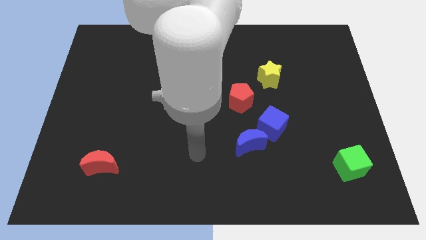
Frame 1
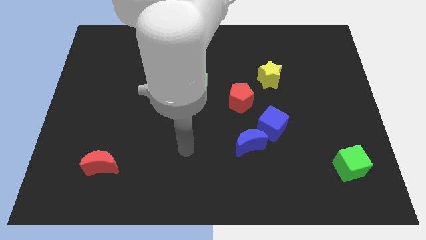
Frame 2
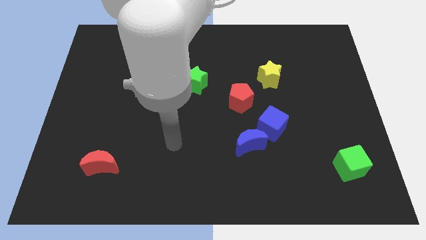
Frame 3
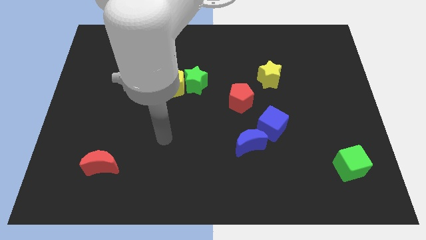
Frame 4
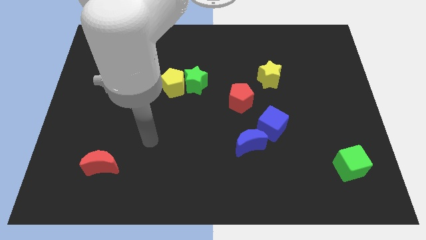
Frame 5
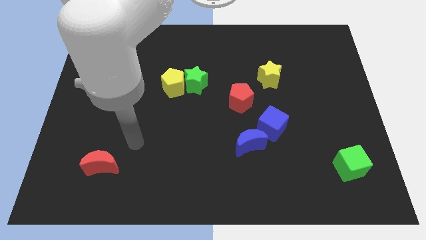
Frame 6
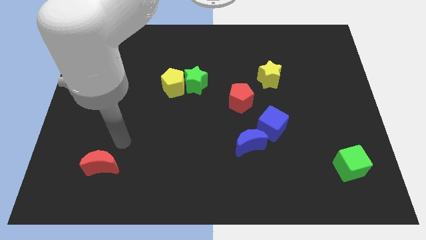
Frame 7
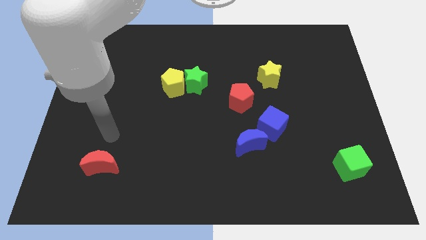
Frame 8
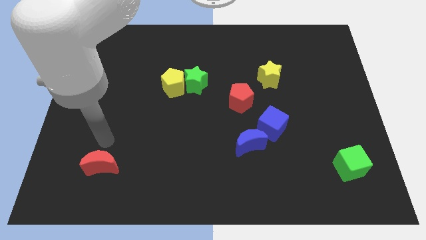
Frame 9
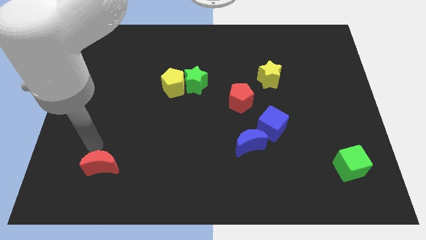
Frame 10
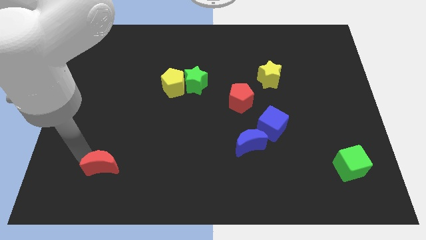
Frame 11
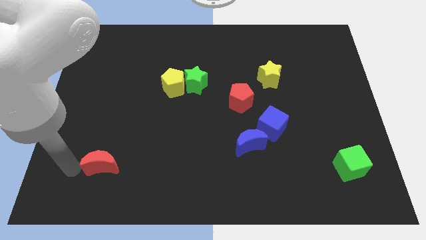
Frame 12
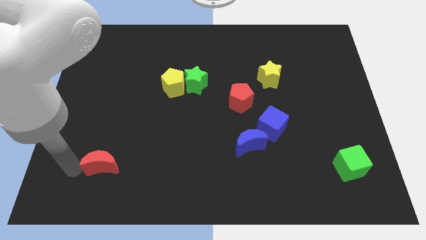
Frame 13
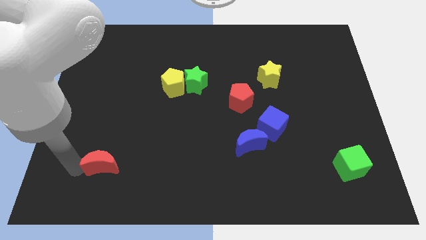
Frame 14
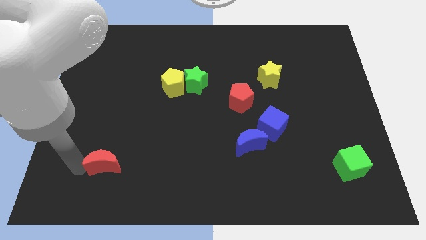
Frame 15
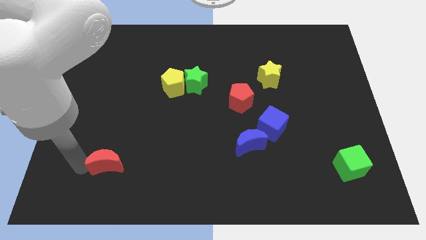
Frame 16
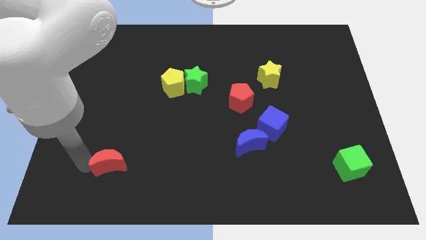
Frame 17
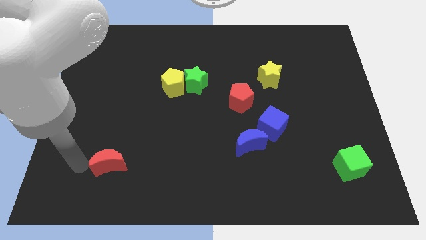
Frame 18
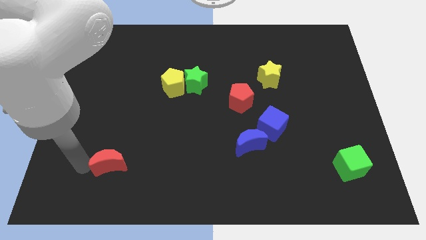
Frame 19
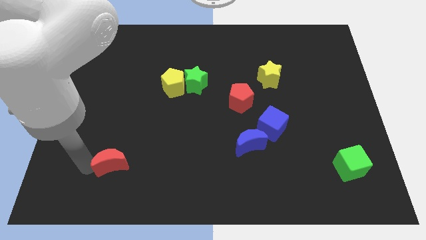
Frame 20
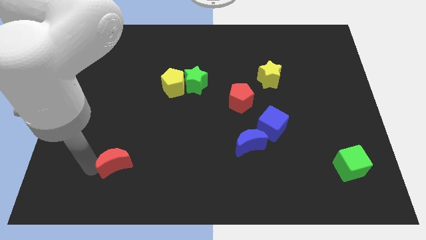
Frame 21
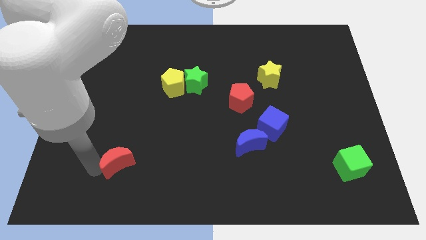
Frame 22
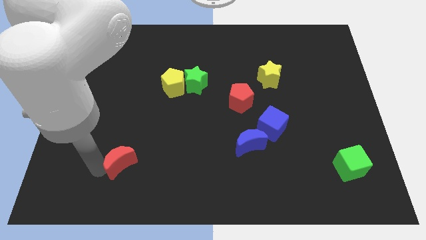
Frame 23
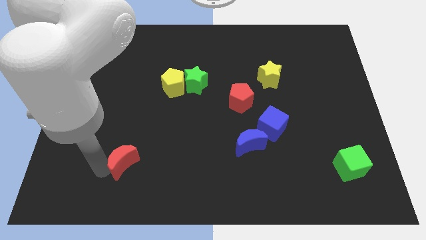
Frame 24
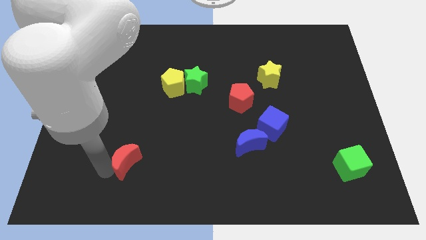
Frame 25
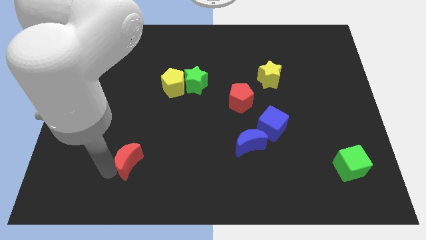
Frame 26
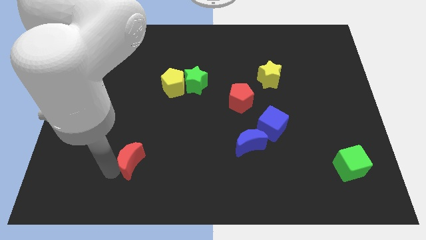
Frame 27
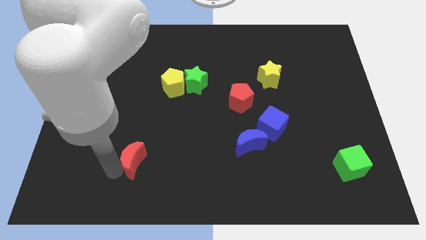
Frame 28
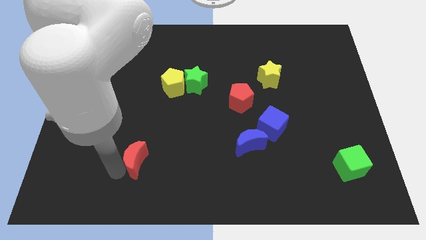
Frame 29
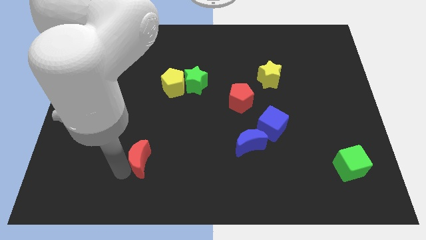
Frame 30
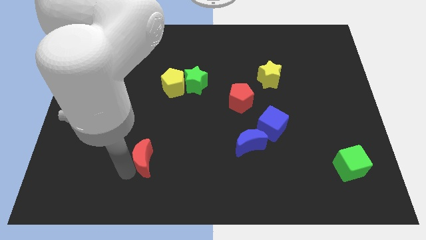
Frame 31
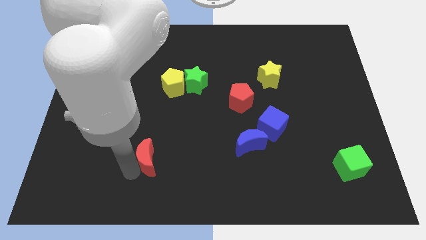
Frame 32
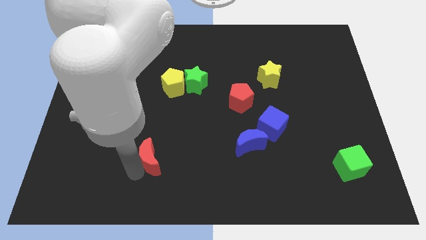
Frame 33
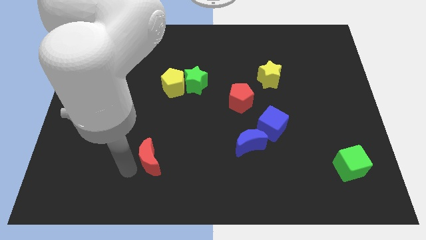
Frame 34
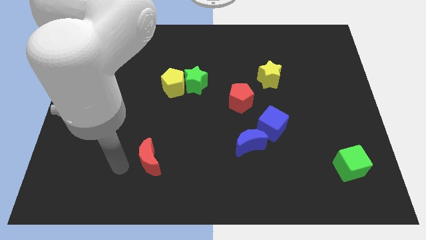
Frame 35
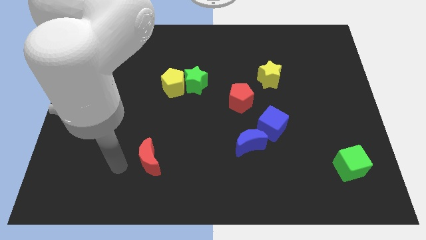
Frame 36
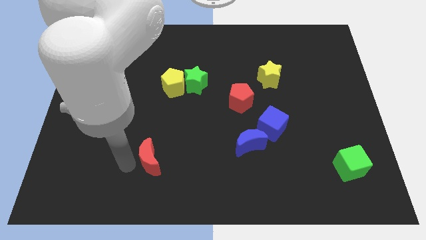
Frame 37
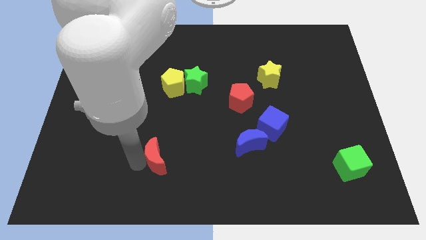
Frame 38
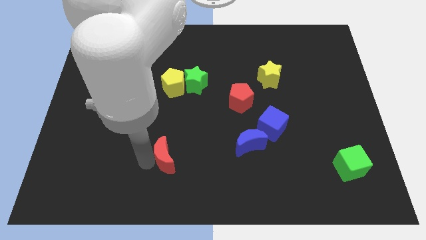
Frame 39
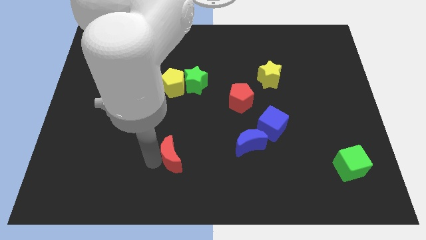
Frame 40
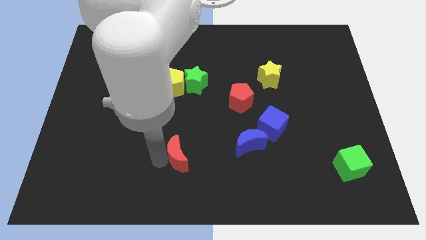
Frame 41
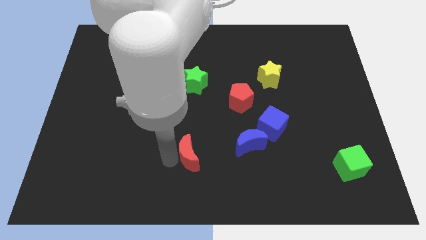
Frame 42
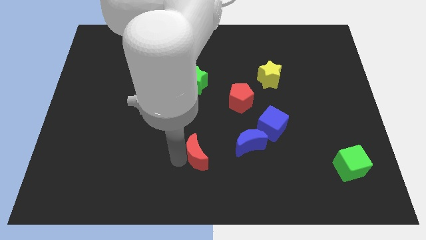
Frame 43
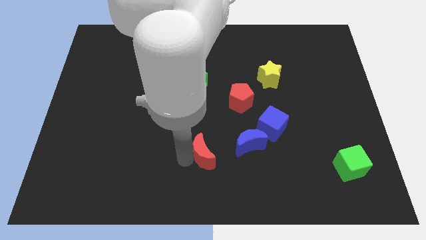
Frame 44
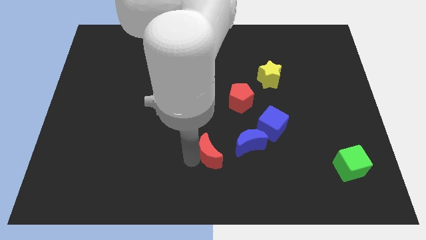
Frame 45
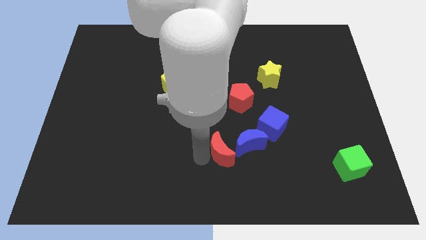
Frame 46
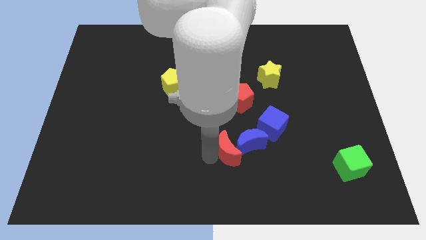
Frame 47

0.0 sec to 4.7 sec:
slide the red moon to the blue moon

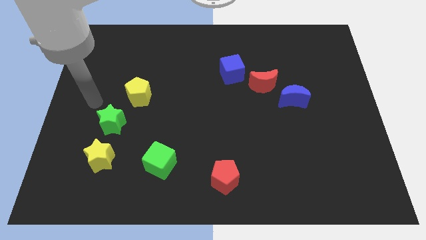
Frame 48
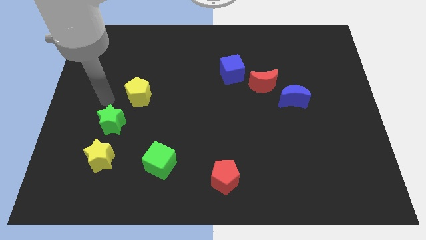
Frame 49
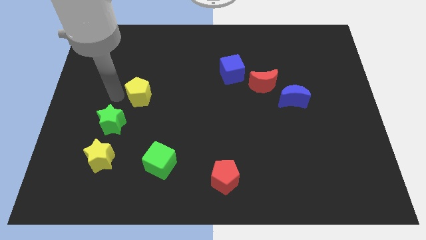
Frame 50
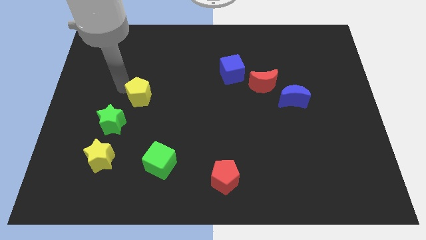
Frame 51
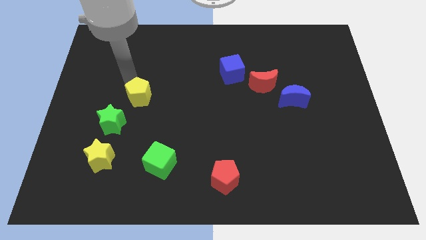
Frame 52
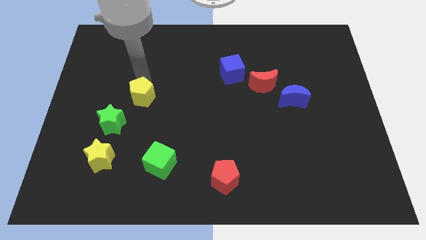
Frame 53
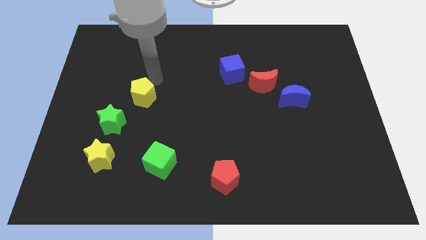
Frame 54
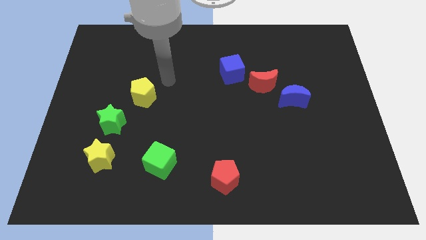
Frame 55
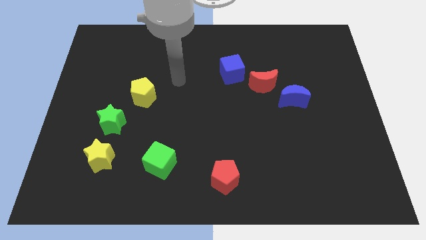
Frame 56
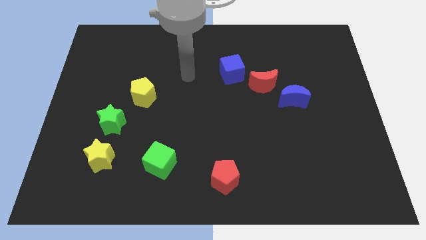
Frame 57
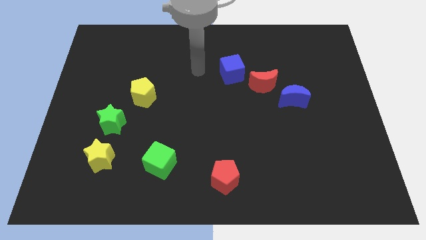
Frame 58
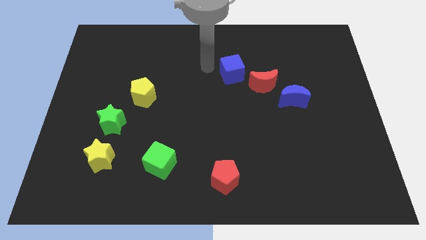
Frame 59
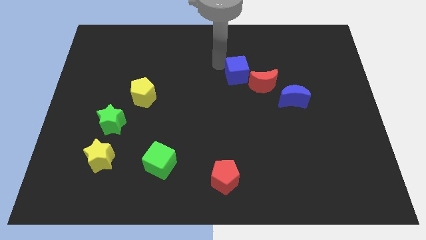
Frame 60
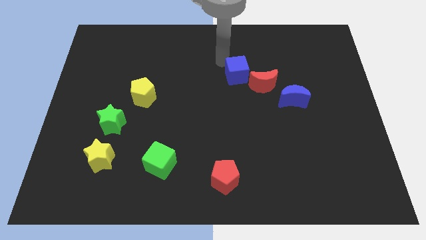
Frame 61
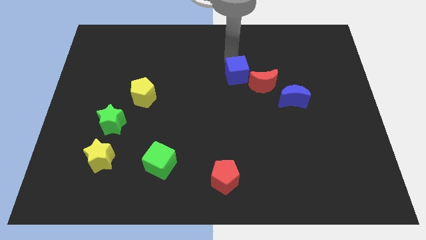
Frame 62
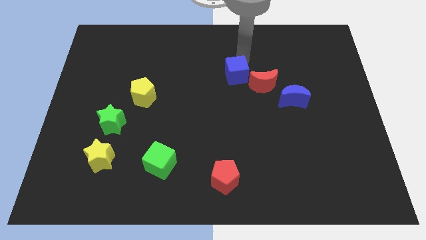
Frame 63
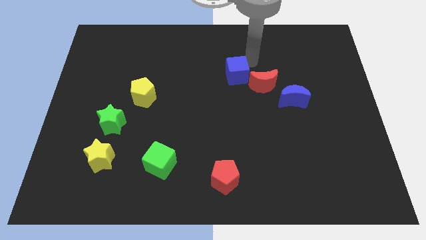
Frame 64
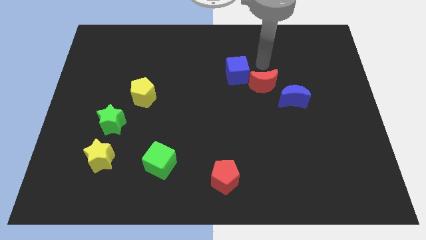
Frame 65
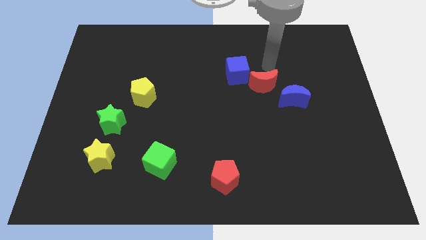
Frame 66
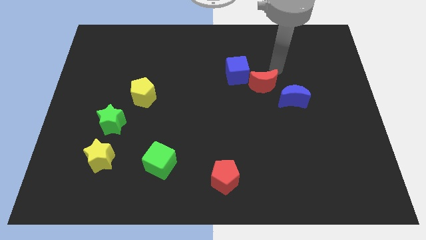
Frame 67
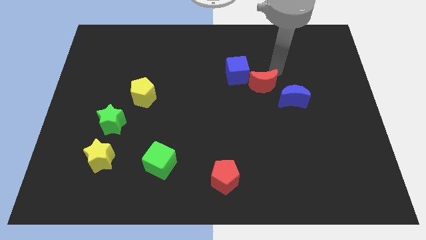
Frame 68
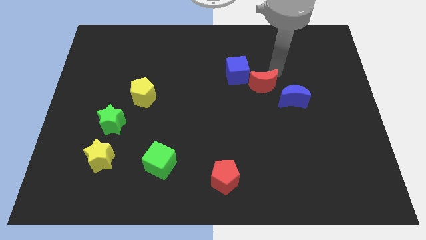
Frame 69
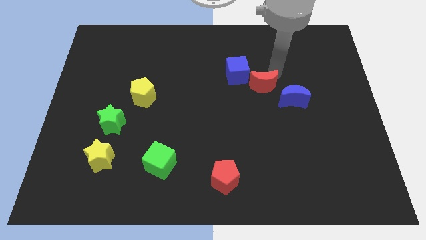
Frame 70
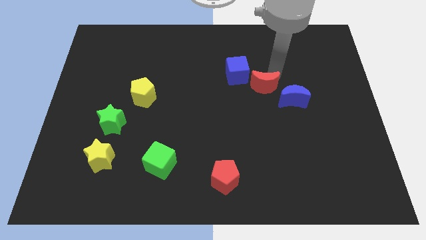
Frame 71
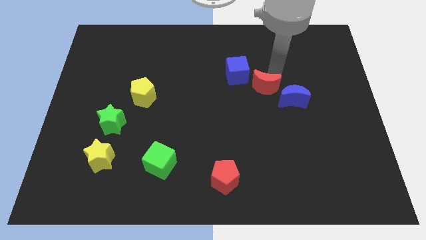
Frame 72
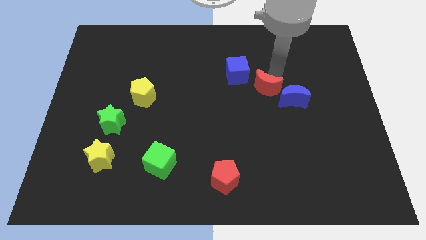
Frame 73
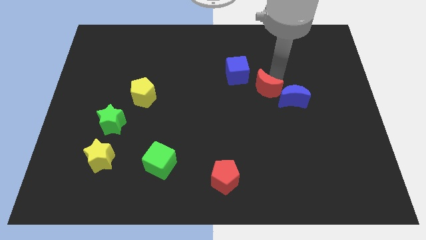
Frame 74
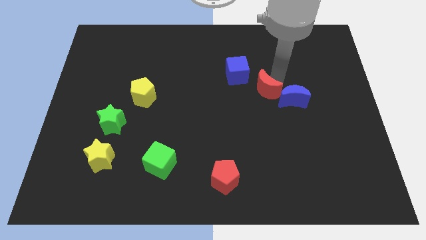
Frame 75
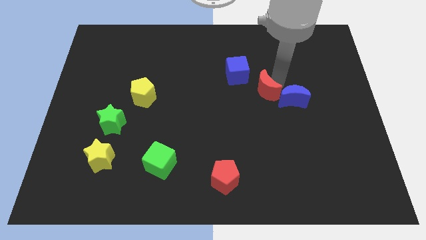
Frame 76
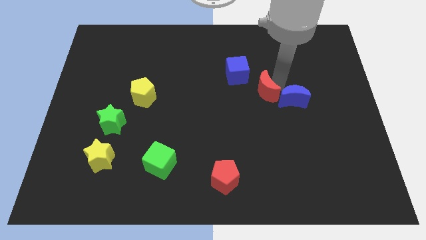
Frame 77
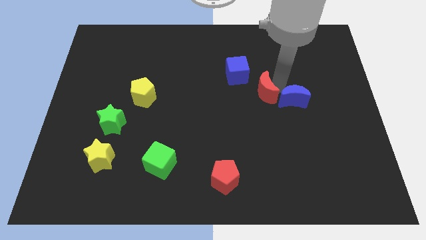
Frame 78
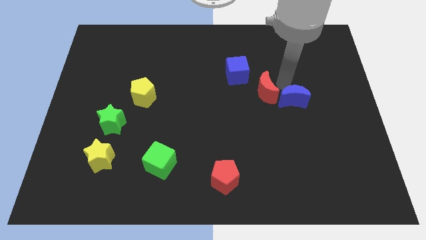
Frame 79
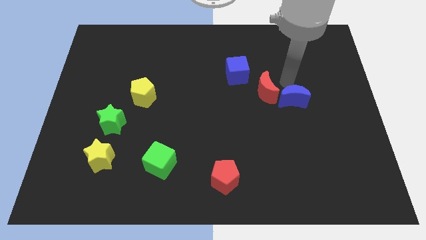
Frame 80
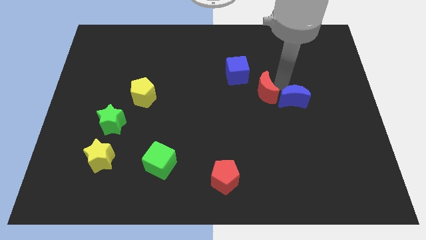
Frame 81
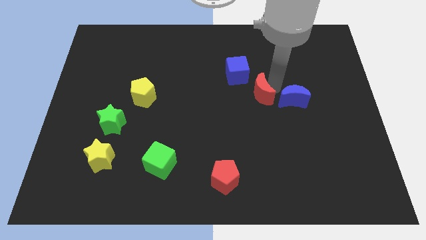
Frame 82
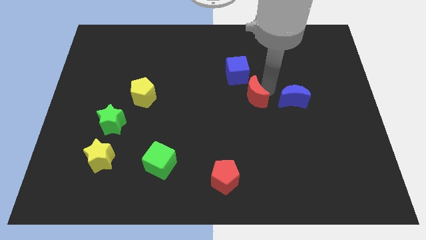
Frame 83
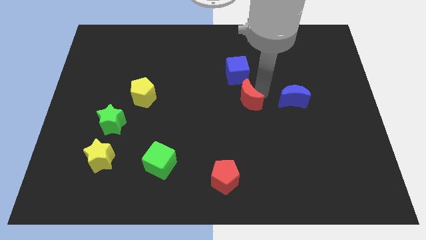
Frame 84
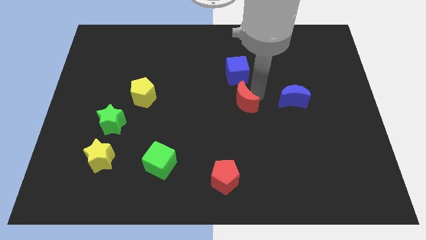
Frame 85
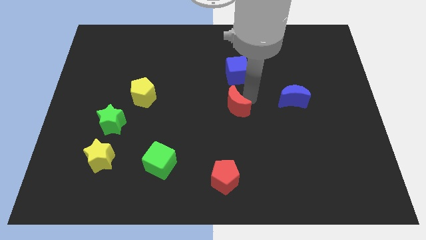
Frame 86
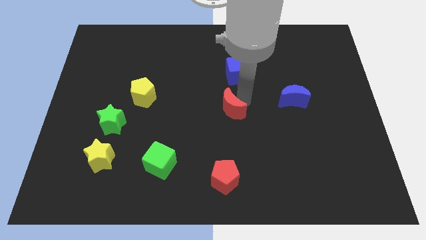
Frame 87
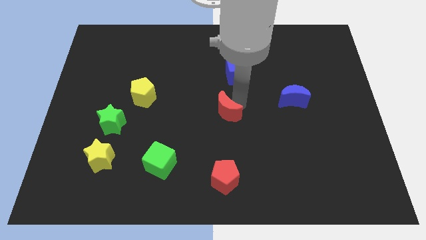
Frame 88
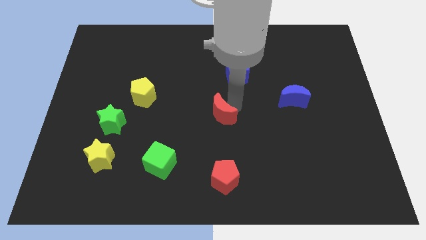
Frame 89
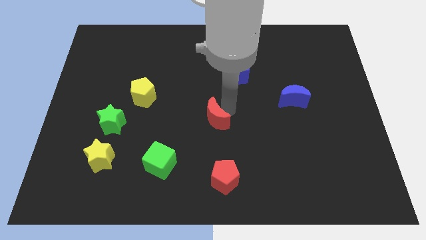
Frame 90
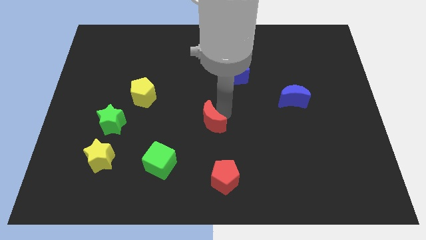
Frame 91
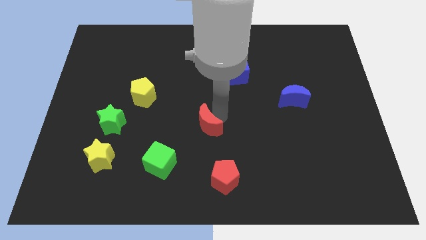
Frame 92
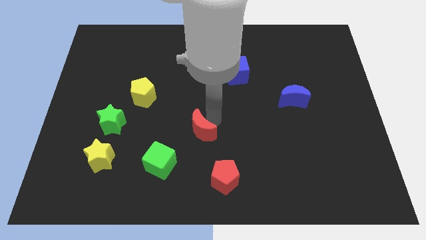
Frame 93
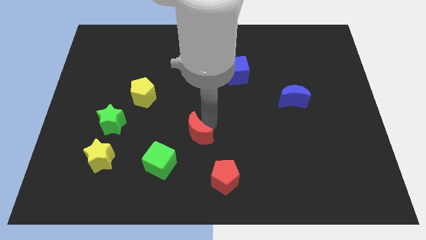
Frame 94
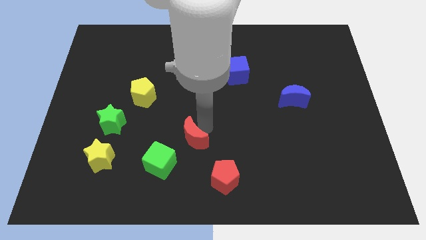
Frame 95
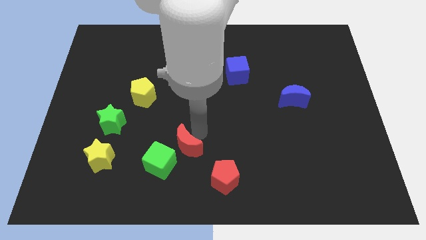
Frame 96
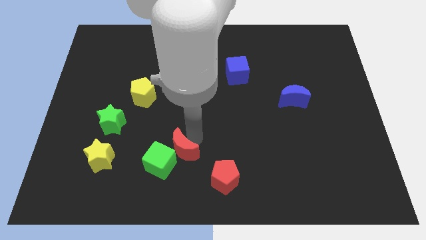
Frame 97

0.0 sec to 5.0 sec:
push the red moon to the green cube
